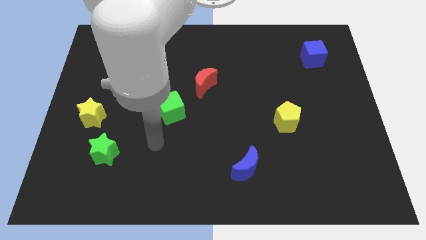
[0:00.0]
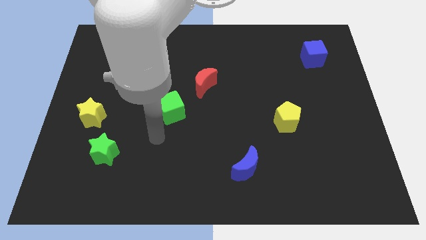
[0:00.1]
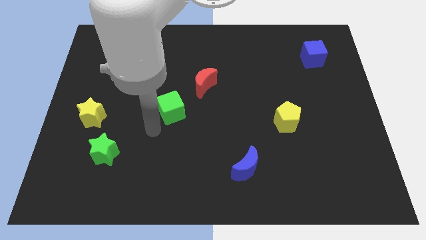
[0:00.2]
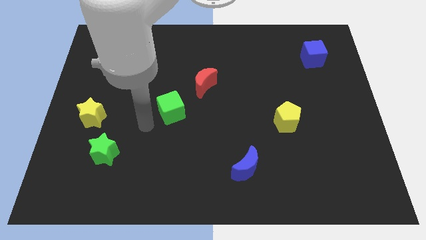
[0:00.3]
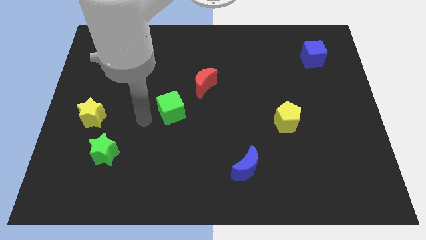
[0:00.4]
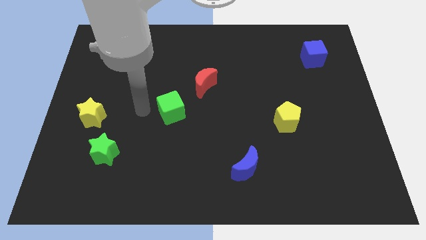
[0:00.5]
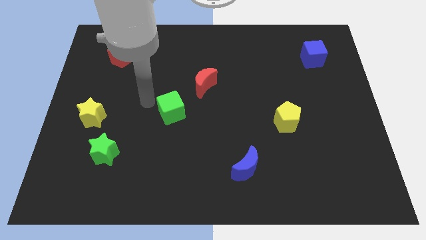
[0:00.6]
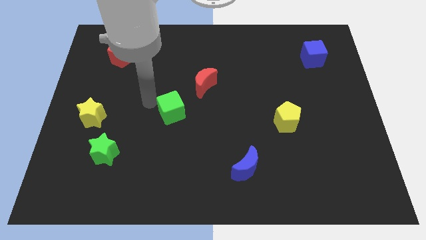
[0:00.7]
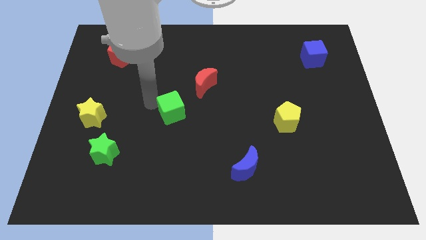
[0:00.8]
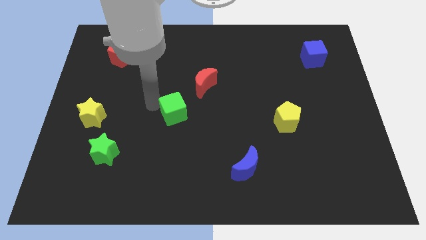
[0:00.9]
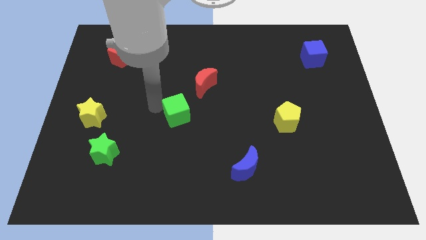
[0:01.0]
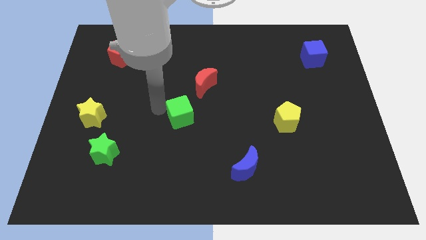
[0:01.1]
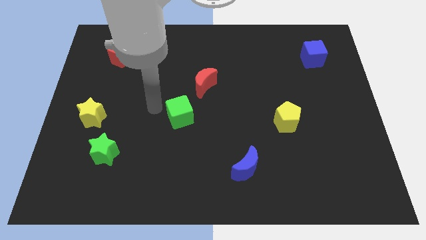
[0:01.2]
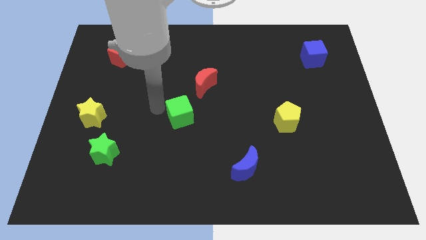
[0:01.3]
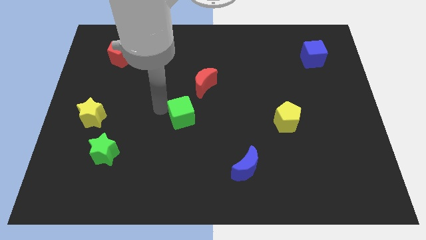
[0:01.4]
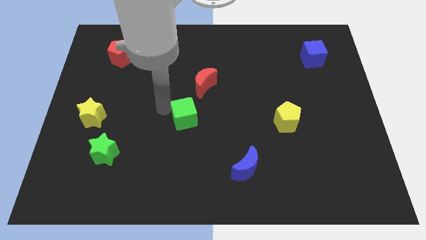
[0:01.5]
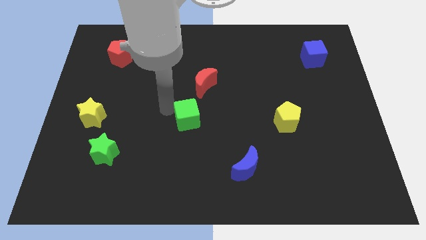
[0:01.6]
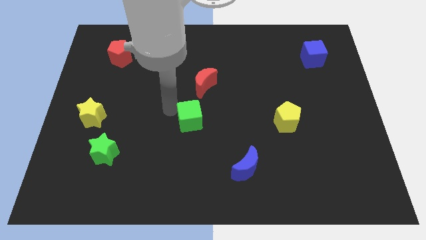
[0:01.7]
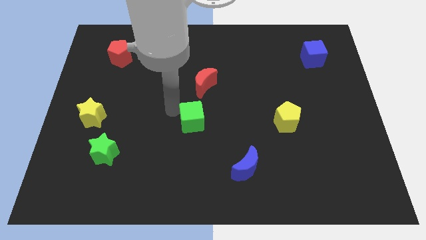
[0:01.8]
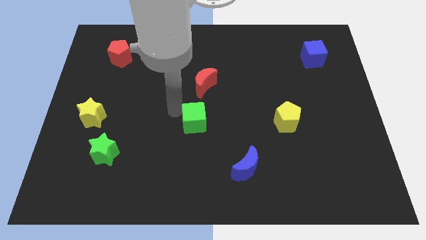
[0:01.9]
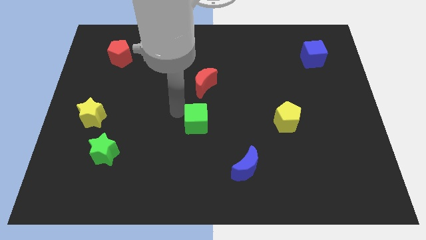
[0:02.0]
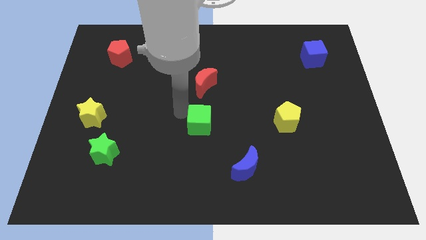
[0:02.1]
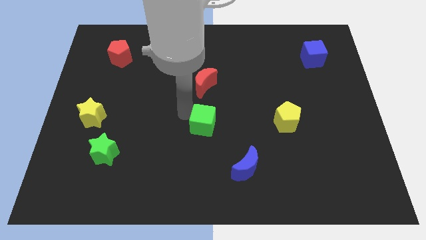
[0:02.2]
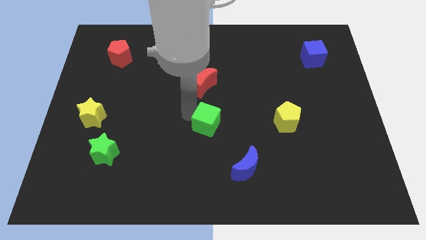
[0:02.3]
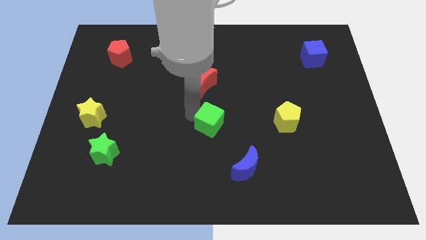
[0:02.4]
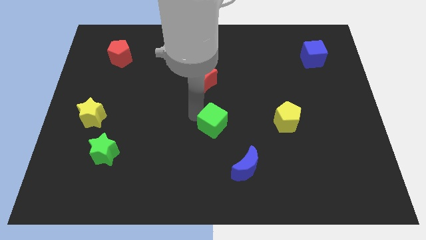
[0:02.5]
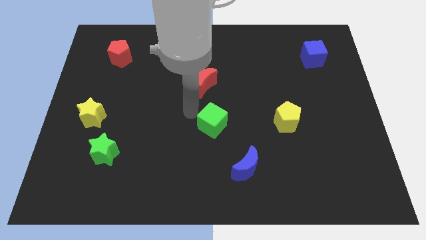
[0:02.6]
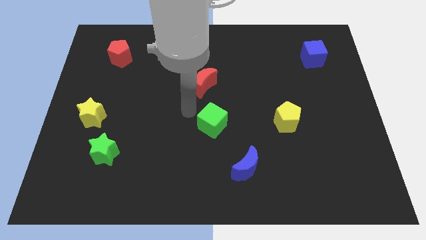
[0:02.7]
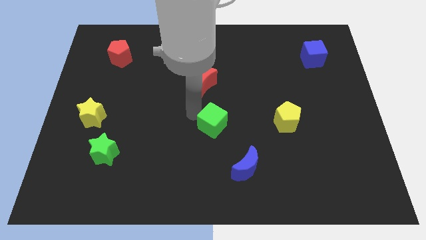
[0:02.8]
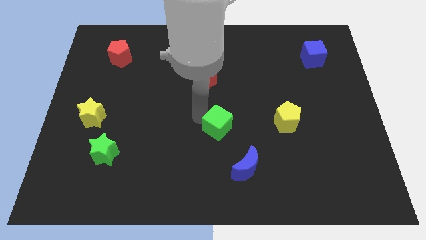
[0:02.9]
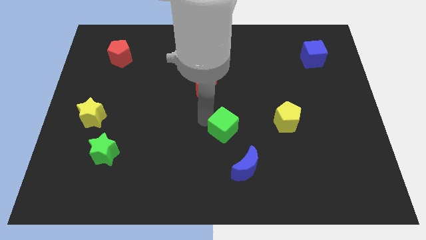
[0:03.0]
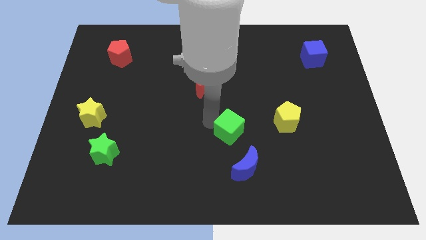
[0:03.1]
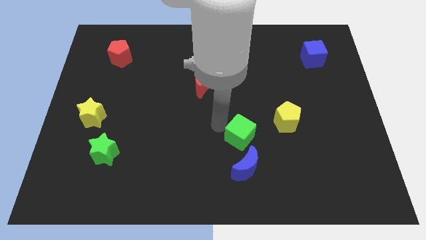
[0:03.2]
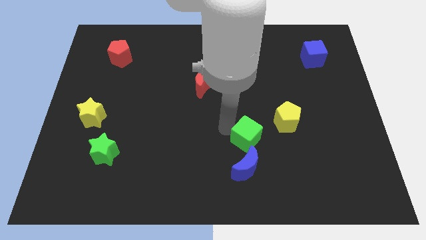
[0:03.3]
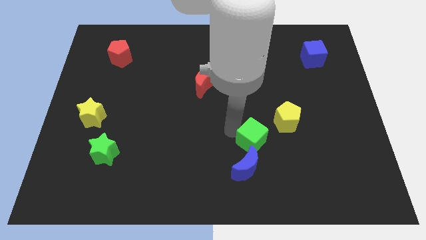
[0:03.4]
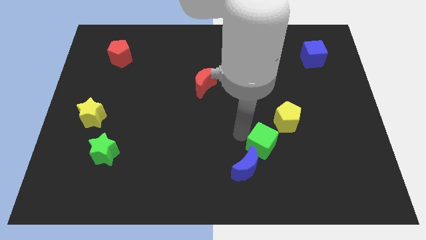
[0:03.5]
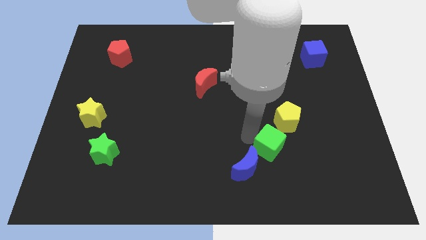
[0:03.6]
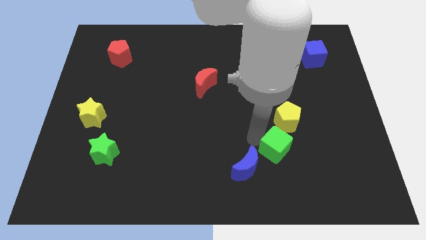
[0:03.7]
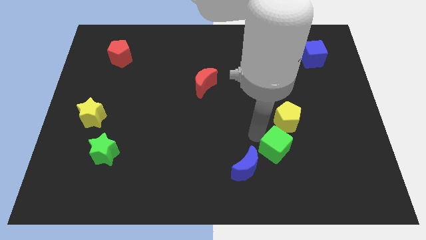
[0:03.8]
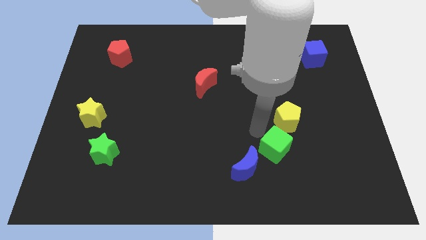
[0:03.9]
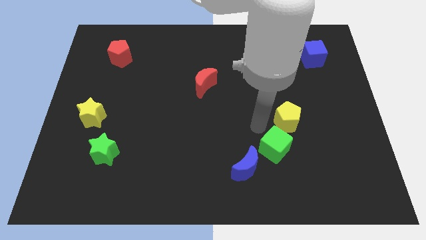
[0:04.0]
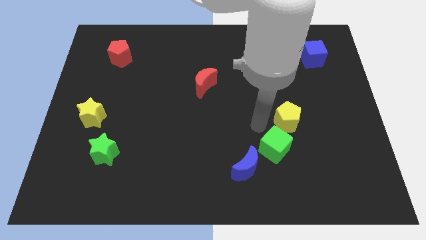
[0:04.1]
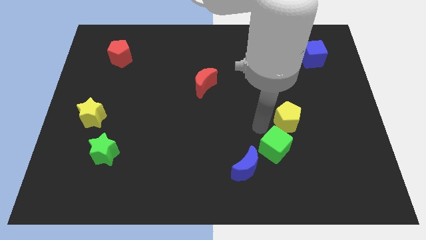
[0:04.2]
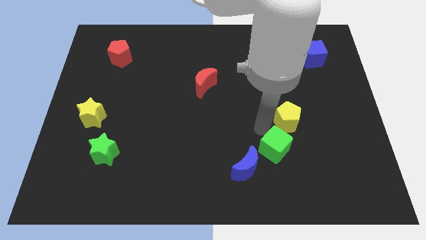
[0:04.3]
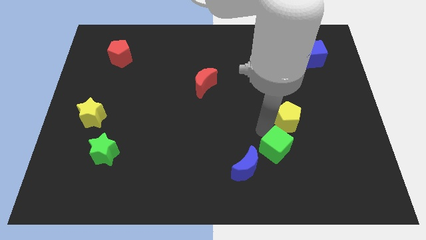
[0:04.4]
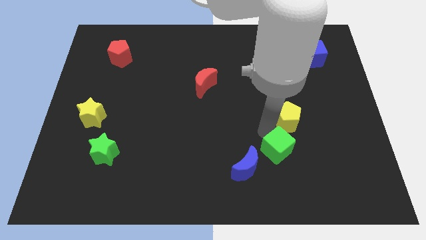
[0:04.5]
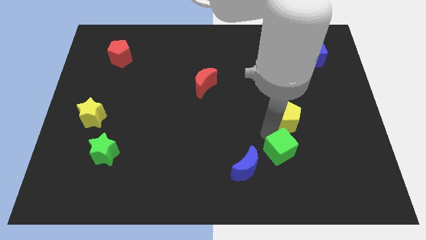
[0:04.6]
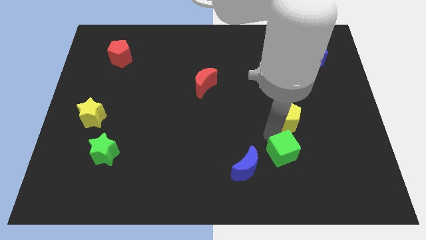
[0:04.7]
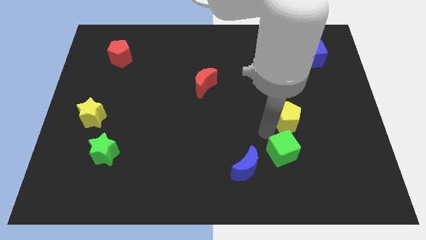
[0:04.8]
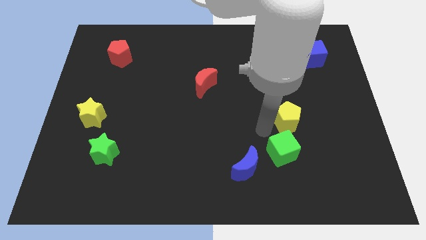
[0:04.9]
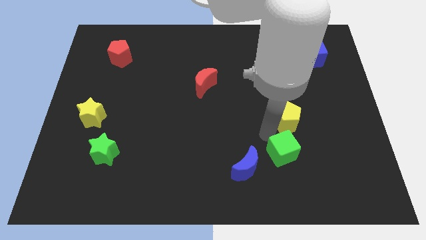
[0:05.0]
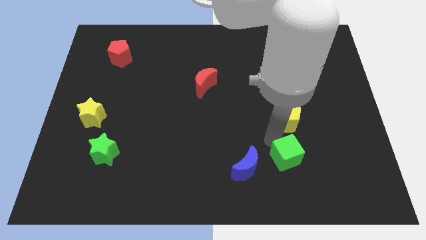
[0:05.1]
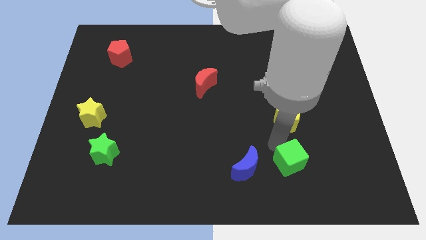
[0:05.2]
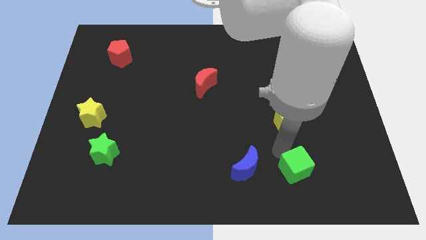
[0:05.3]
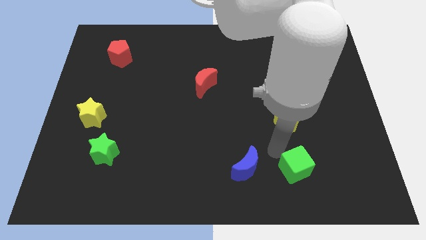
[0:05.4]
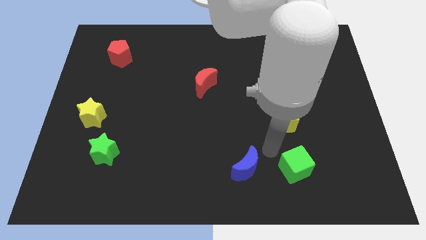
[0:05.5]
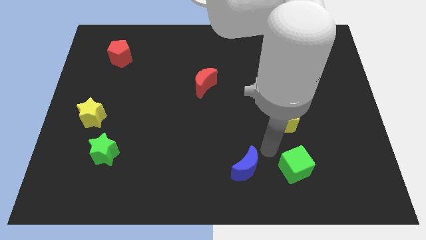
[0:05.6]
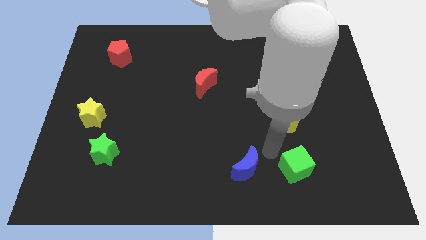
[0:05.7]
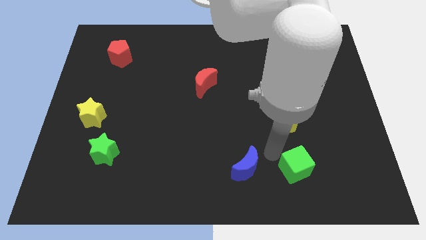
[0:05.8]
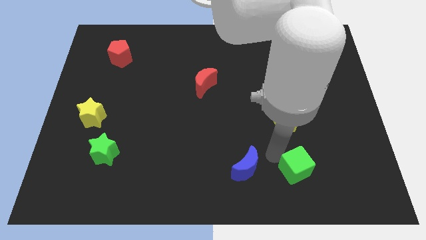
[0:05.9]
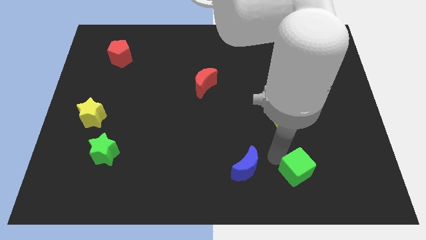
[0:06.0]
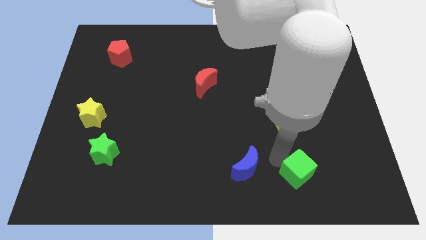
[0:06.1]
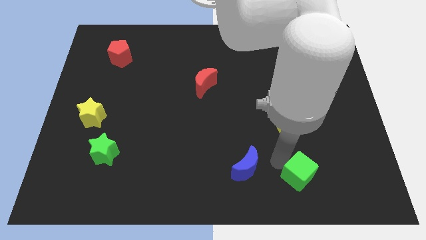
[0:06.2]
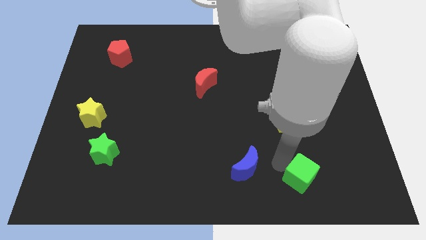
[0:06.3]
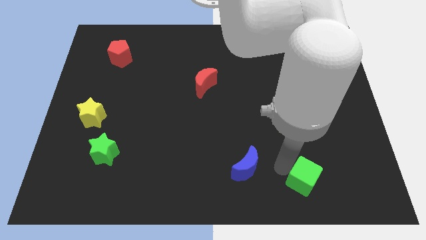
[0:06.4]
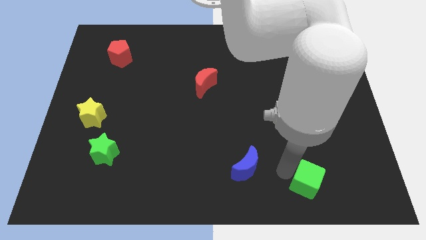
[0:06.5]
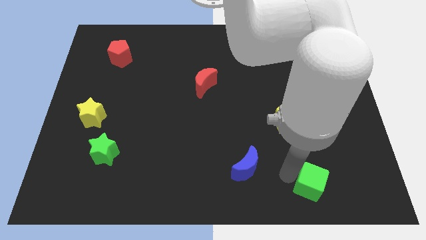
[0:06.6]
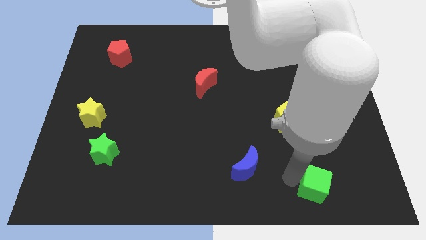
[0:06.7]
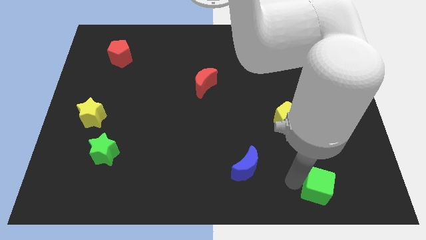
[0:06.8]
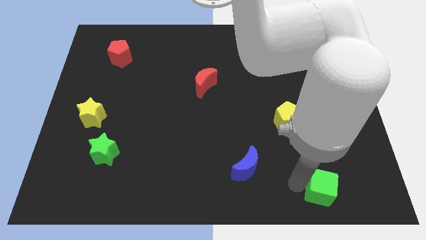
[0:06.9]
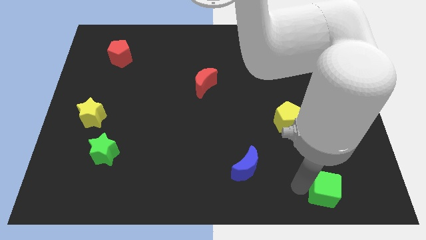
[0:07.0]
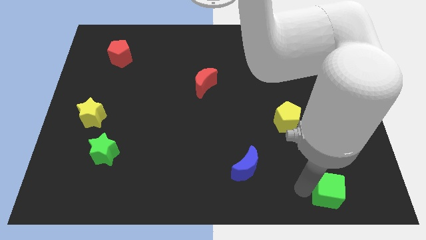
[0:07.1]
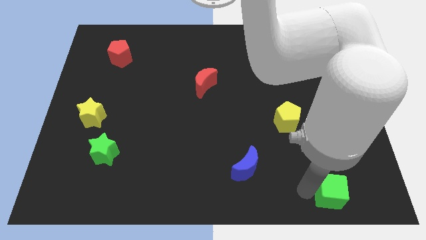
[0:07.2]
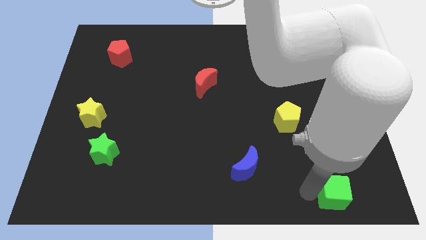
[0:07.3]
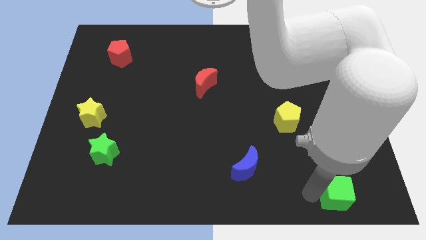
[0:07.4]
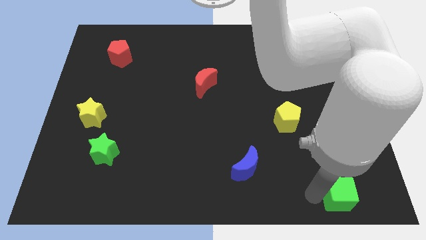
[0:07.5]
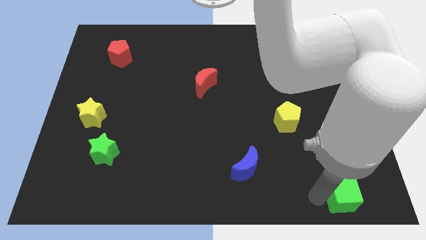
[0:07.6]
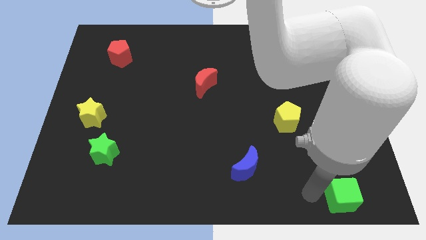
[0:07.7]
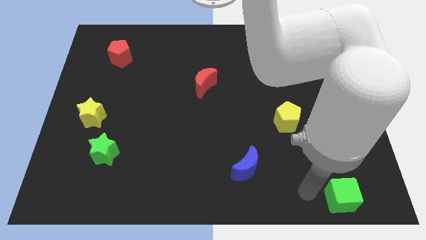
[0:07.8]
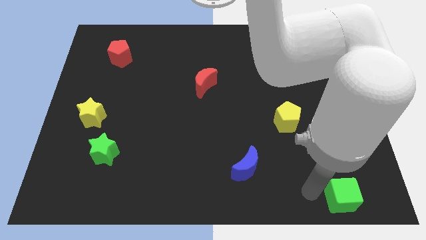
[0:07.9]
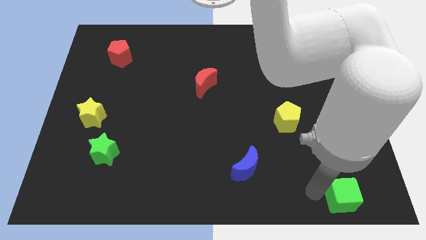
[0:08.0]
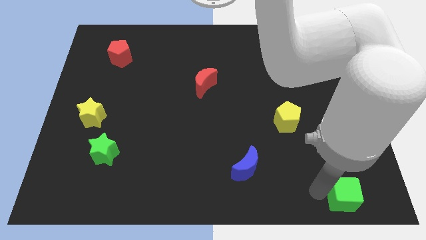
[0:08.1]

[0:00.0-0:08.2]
push the green cube to the lower right corner
